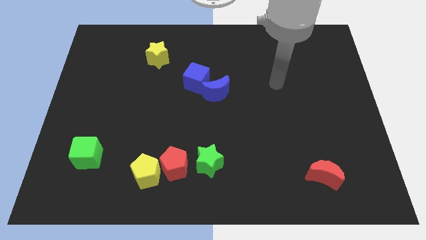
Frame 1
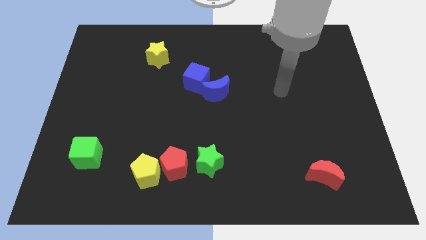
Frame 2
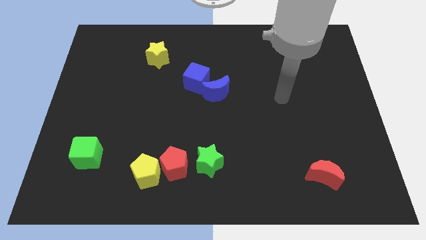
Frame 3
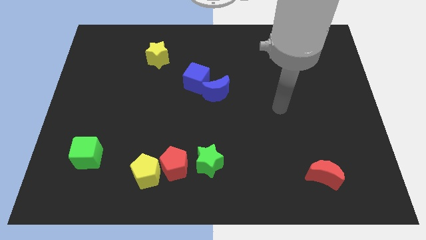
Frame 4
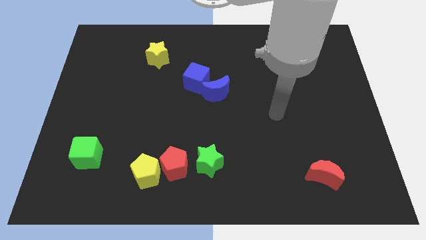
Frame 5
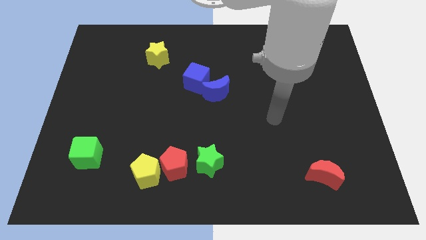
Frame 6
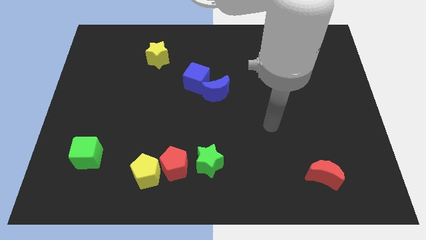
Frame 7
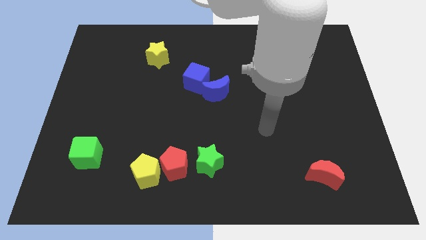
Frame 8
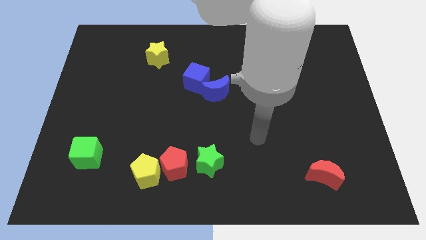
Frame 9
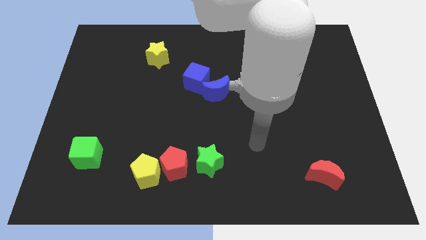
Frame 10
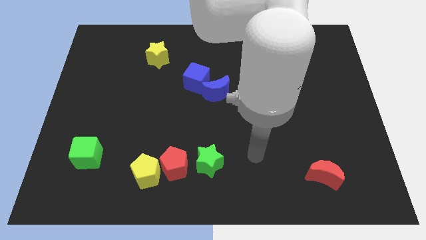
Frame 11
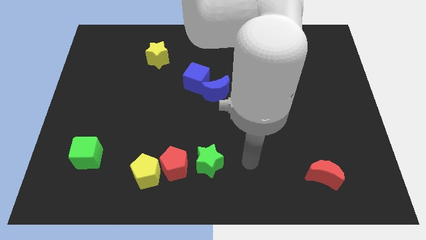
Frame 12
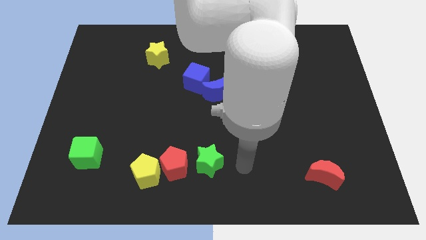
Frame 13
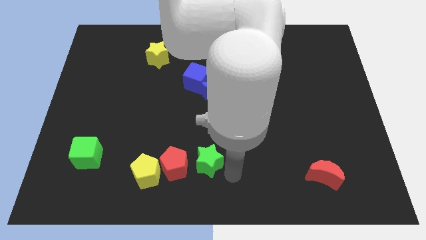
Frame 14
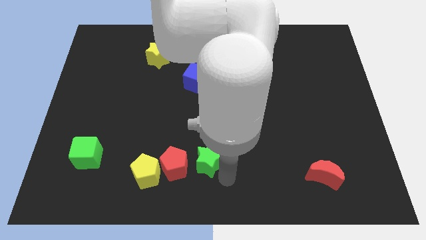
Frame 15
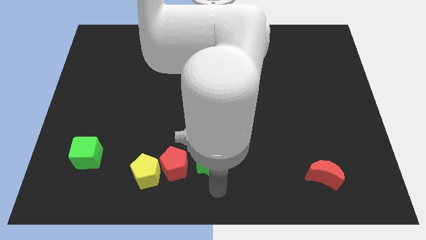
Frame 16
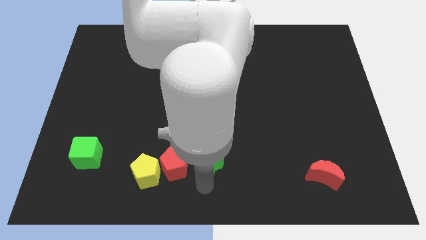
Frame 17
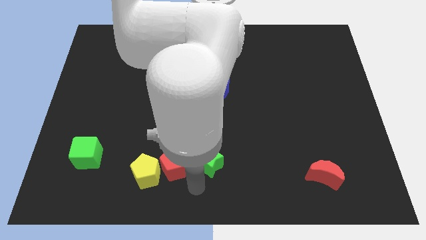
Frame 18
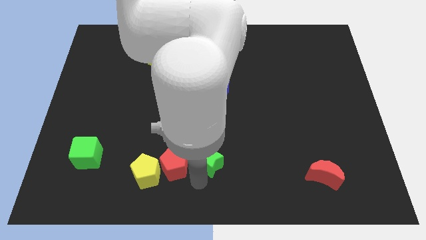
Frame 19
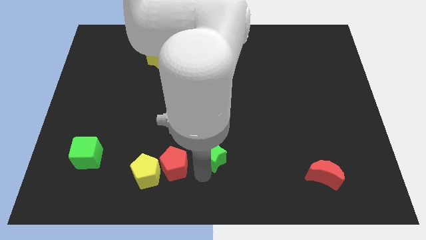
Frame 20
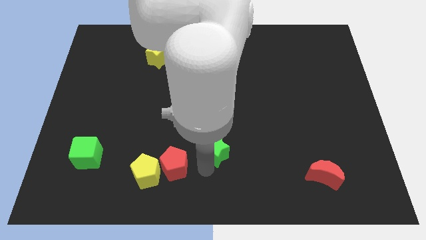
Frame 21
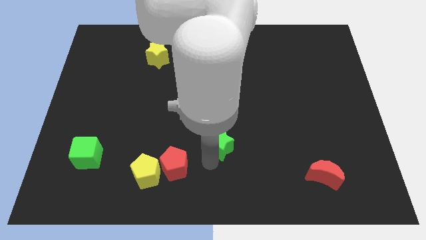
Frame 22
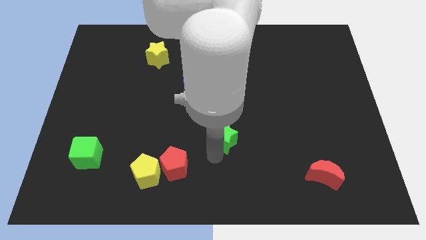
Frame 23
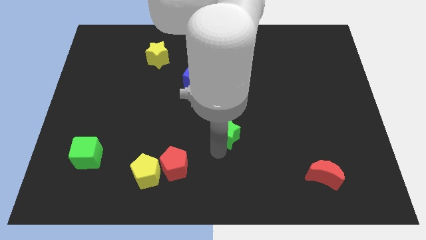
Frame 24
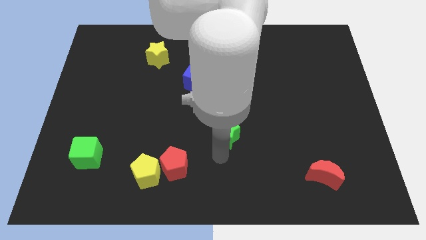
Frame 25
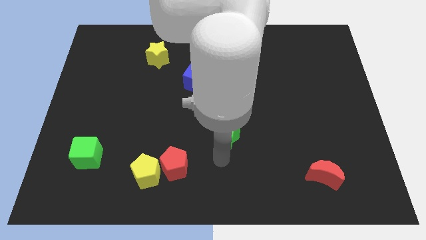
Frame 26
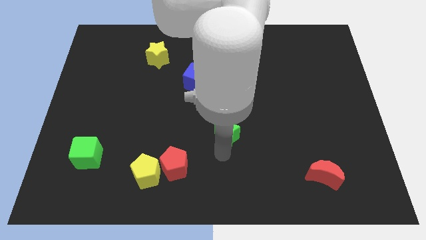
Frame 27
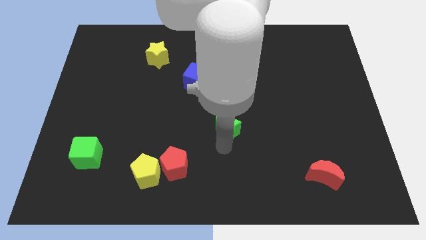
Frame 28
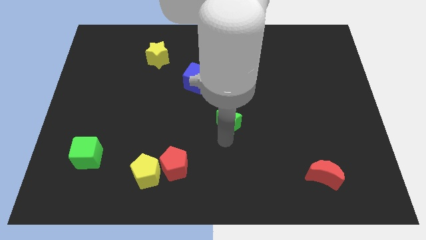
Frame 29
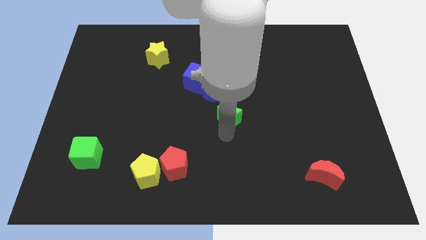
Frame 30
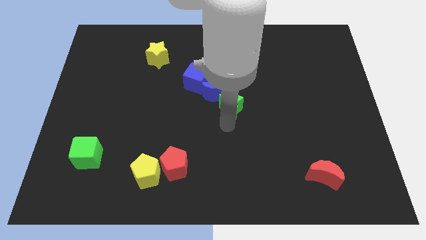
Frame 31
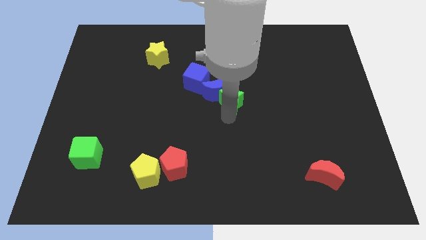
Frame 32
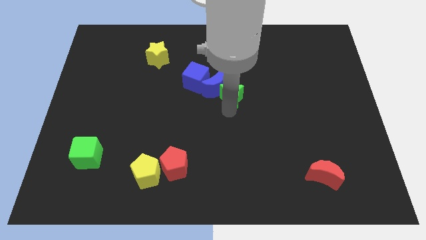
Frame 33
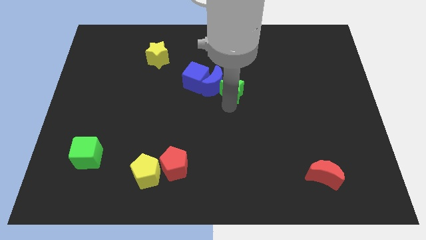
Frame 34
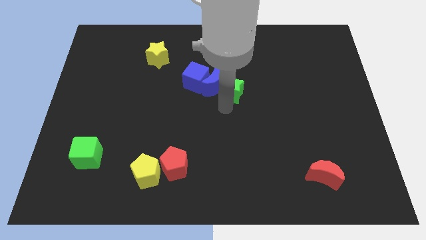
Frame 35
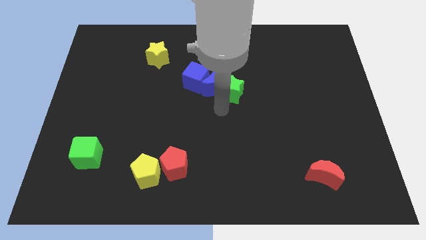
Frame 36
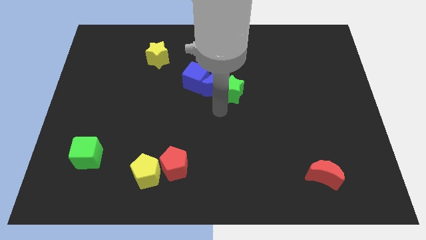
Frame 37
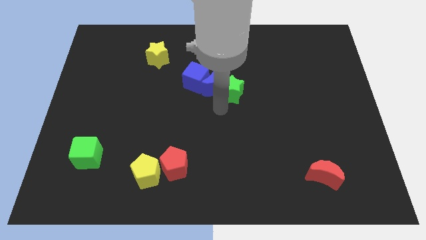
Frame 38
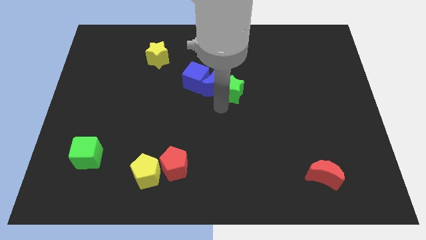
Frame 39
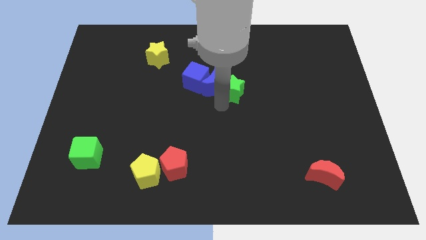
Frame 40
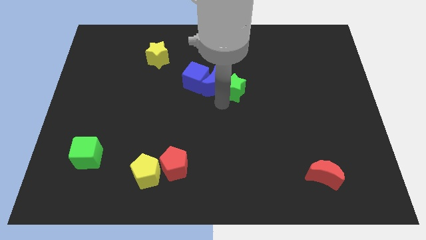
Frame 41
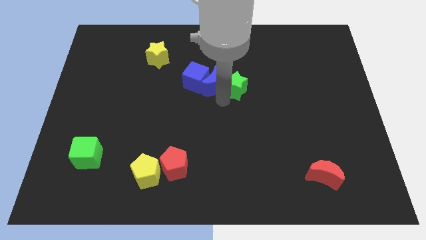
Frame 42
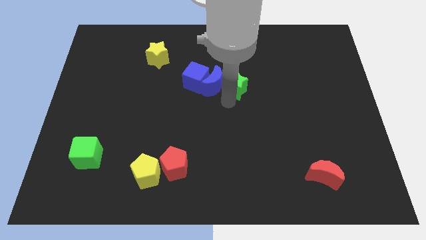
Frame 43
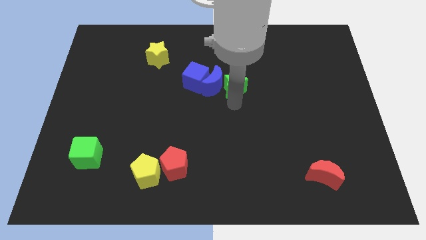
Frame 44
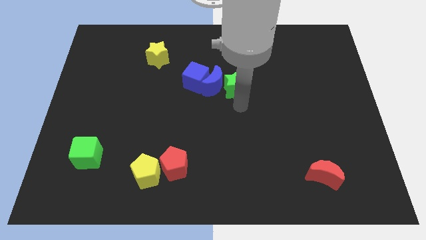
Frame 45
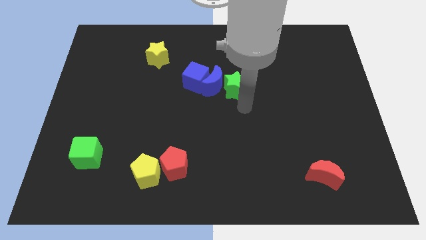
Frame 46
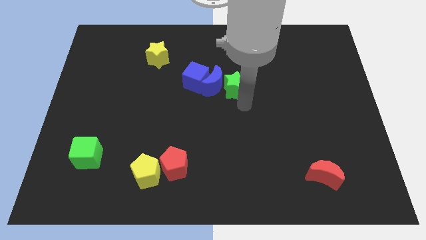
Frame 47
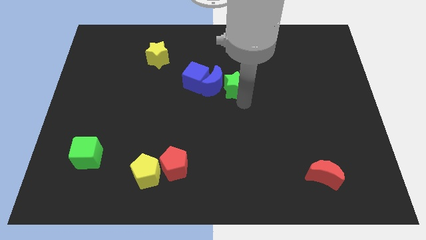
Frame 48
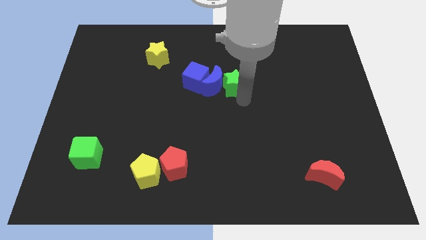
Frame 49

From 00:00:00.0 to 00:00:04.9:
push the green star up

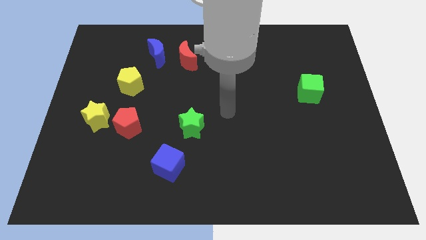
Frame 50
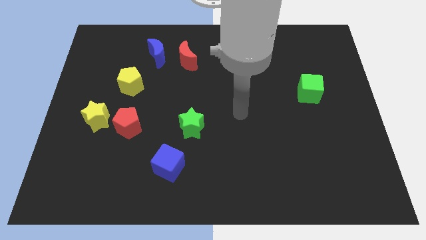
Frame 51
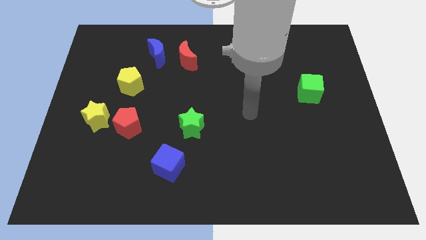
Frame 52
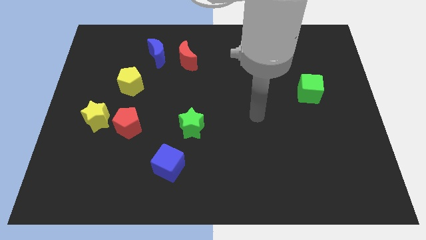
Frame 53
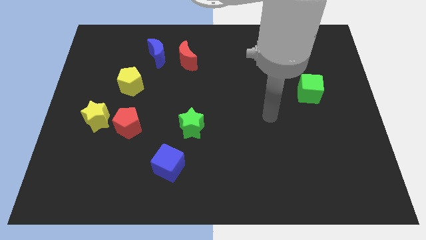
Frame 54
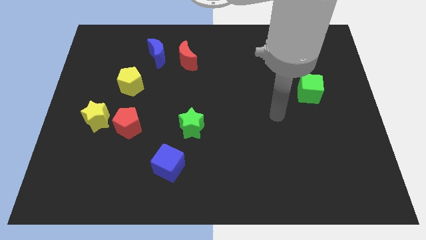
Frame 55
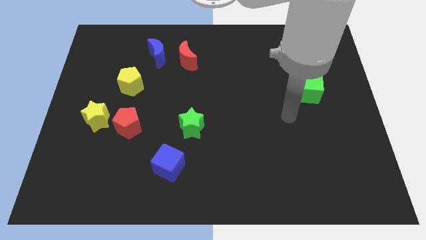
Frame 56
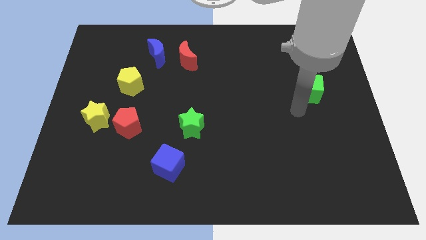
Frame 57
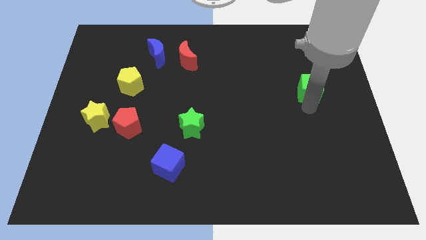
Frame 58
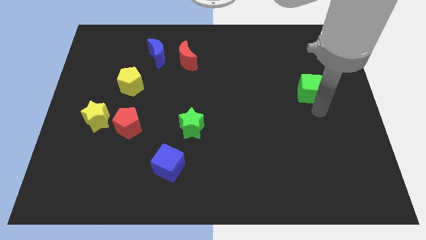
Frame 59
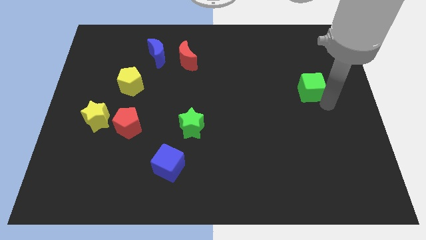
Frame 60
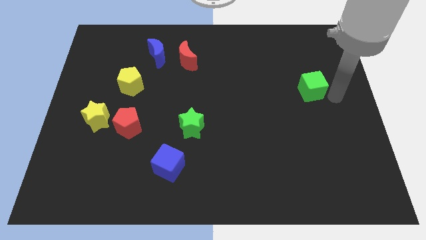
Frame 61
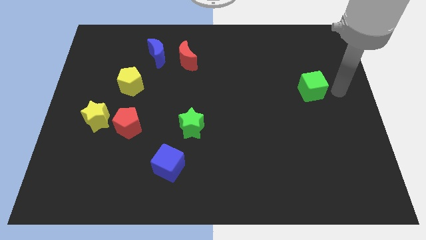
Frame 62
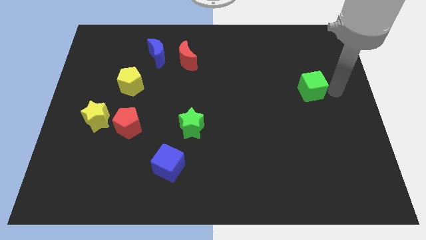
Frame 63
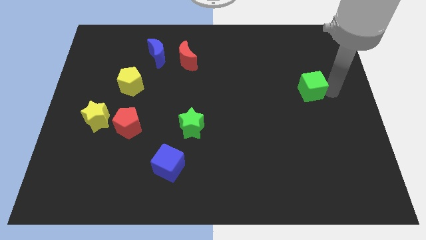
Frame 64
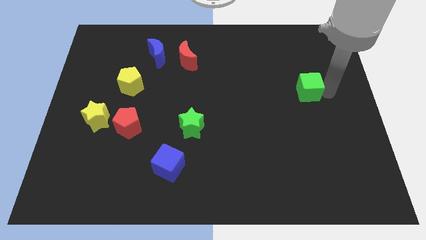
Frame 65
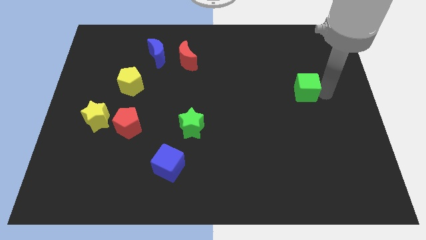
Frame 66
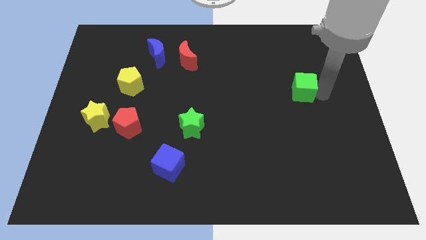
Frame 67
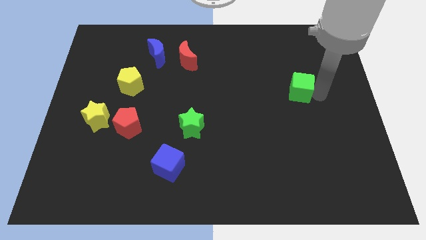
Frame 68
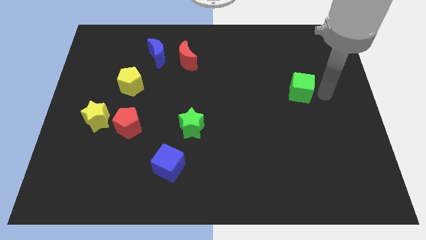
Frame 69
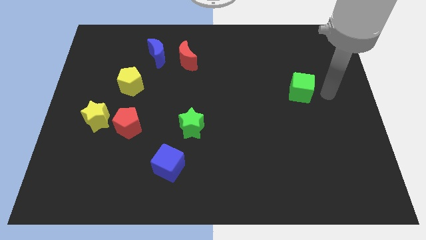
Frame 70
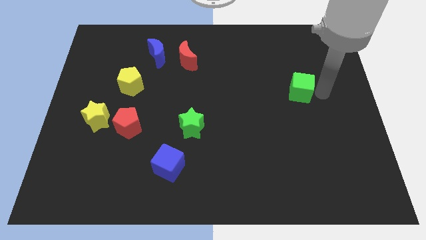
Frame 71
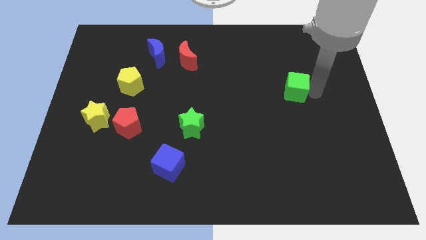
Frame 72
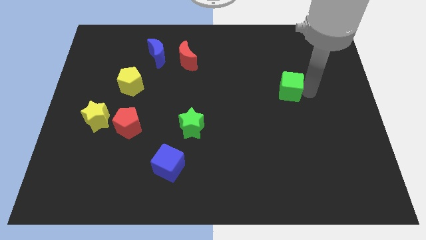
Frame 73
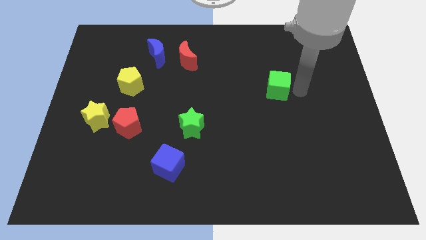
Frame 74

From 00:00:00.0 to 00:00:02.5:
move the green cube left a little bit

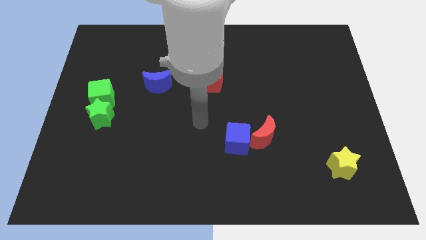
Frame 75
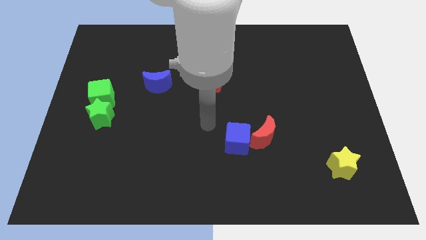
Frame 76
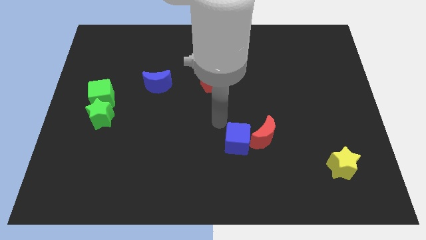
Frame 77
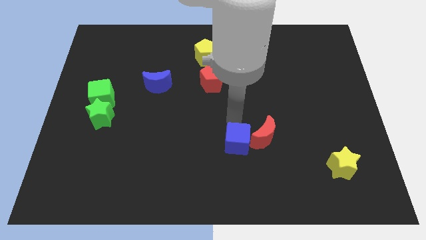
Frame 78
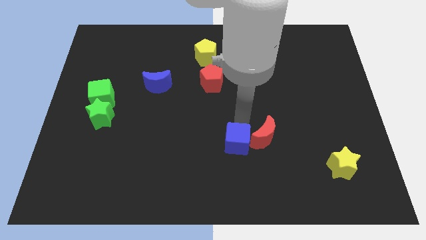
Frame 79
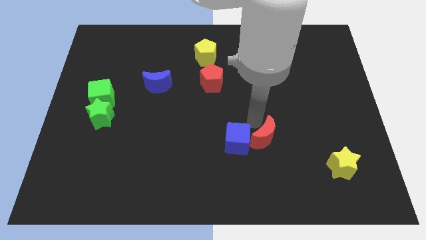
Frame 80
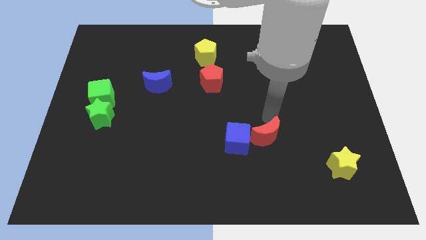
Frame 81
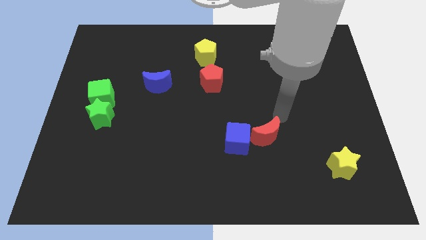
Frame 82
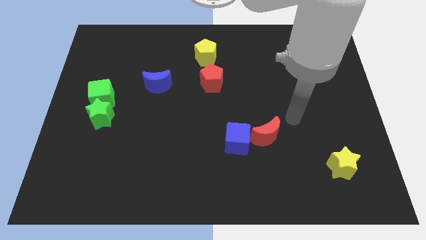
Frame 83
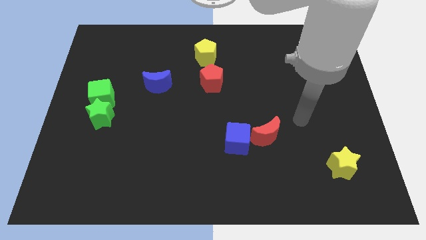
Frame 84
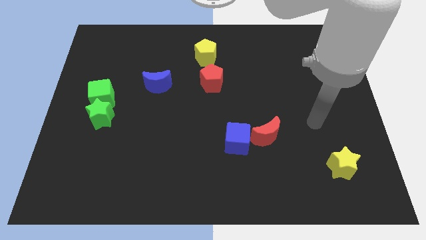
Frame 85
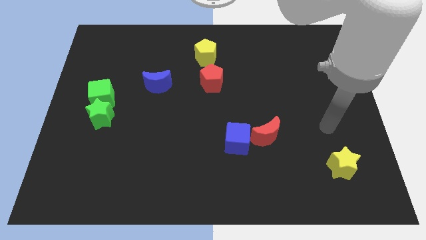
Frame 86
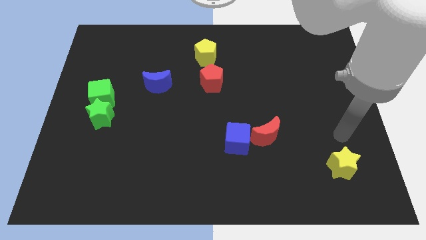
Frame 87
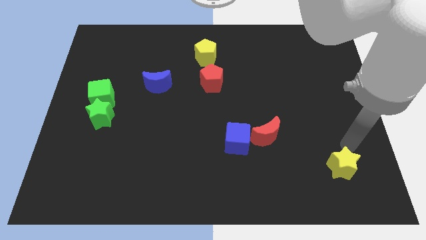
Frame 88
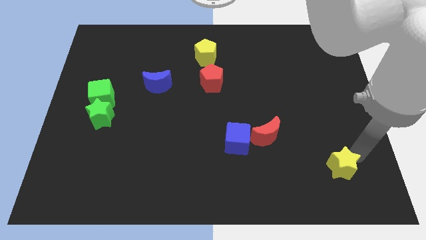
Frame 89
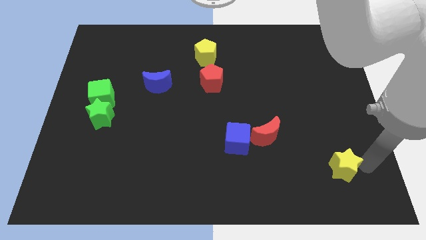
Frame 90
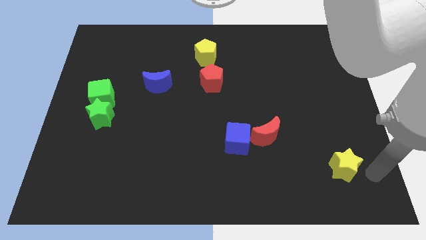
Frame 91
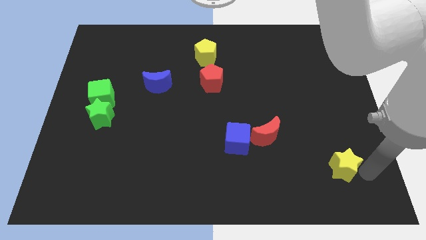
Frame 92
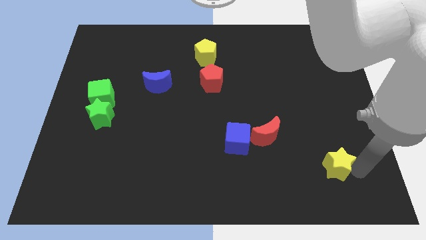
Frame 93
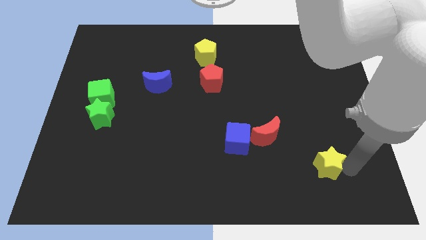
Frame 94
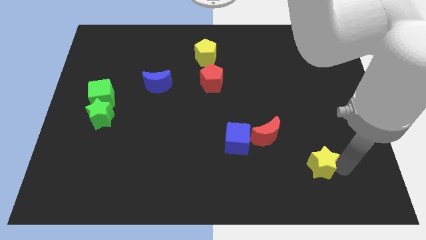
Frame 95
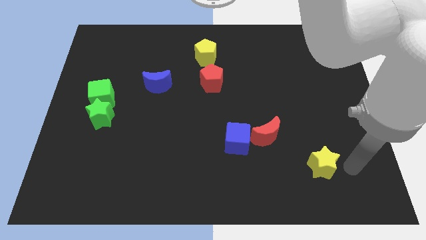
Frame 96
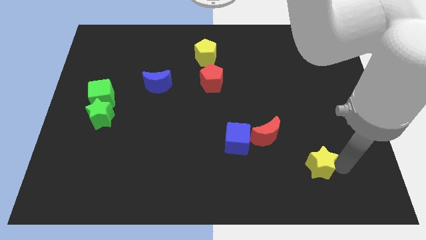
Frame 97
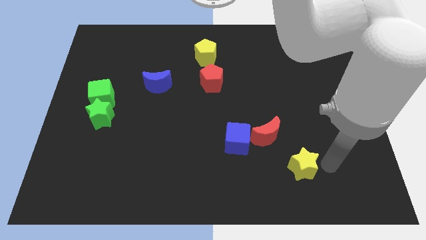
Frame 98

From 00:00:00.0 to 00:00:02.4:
push the yellow star left slightly
